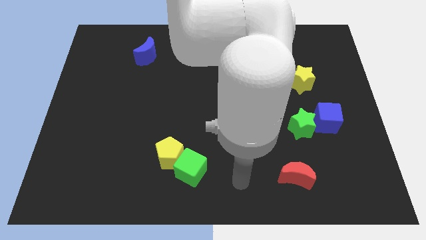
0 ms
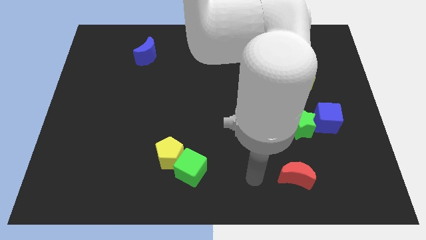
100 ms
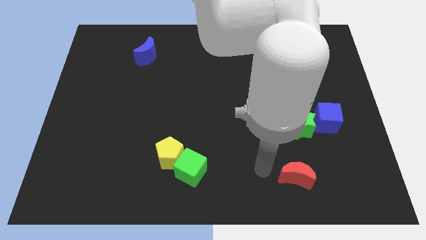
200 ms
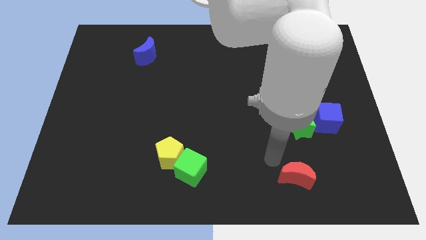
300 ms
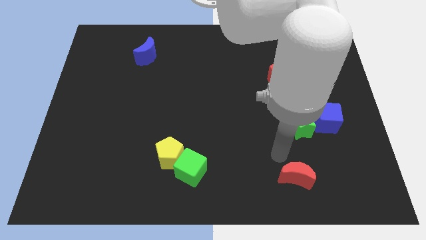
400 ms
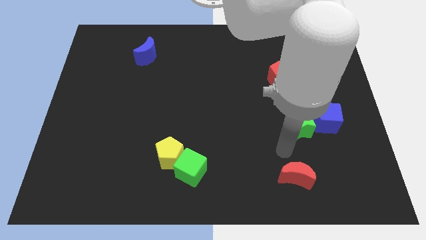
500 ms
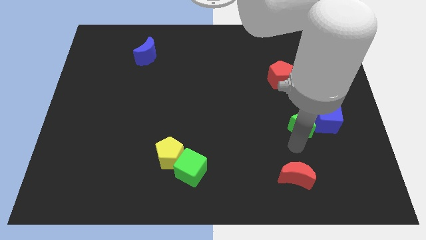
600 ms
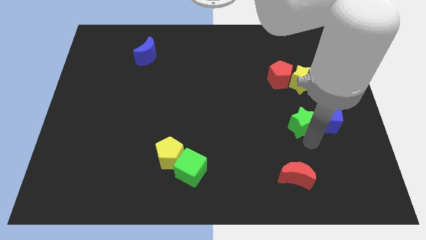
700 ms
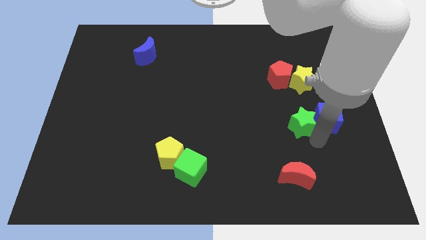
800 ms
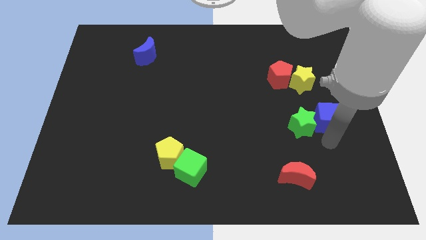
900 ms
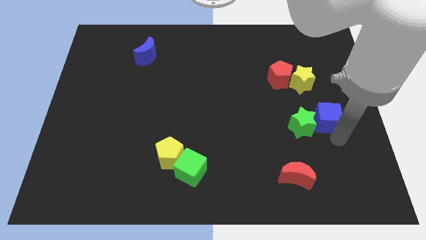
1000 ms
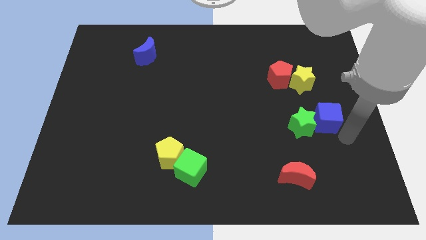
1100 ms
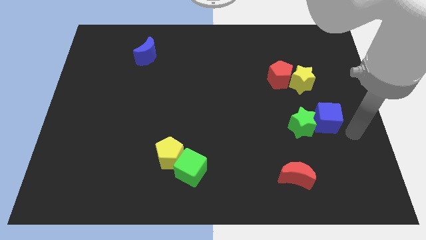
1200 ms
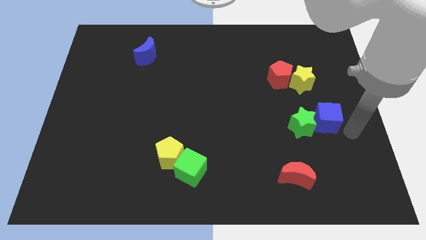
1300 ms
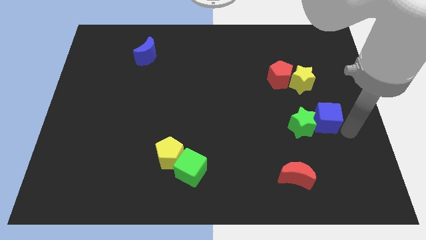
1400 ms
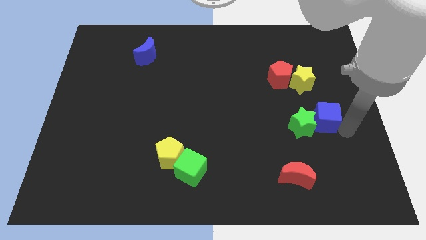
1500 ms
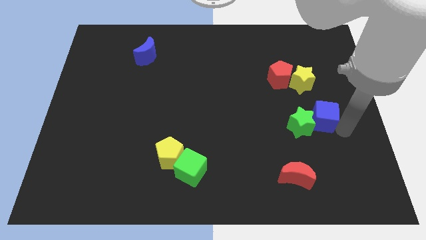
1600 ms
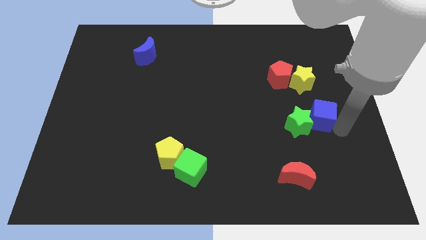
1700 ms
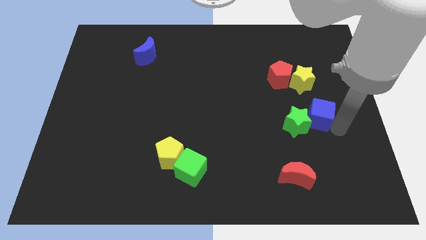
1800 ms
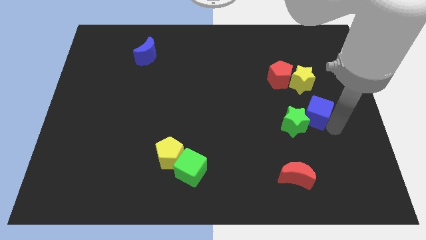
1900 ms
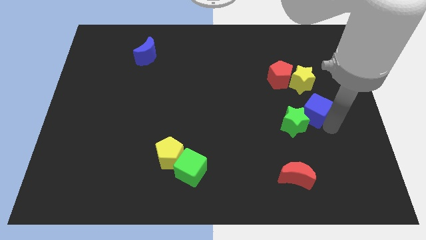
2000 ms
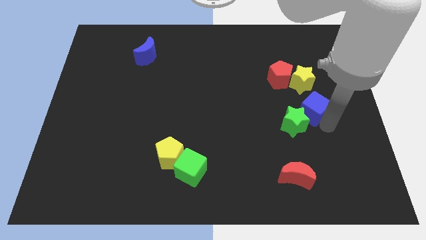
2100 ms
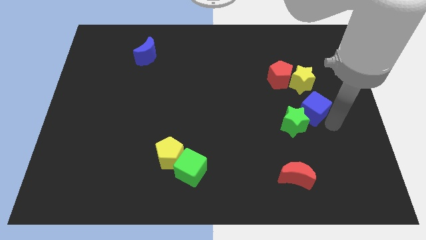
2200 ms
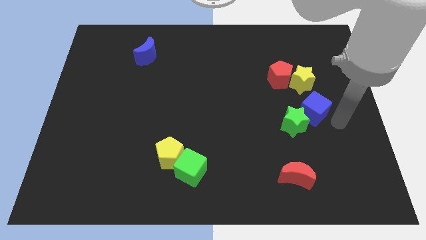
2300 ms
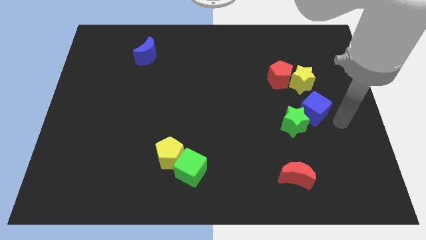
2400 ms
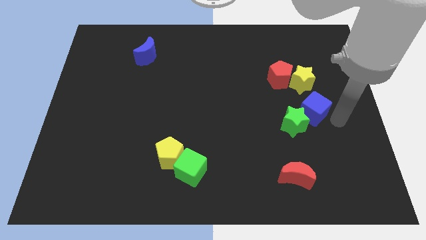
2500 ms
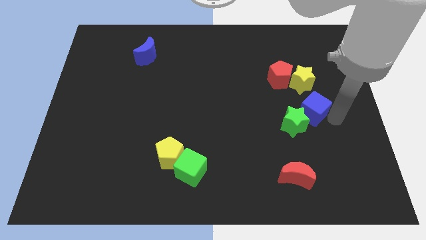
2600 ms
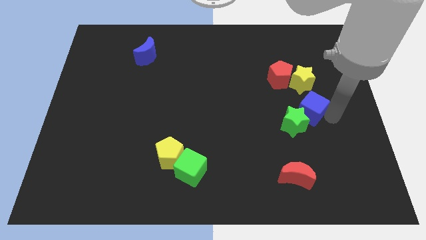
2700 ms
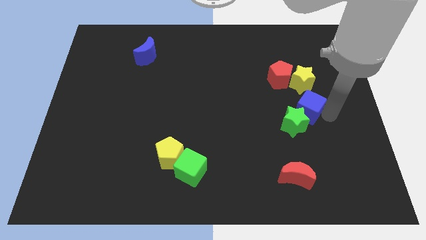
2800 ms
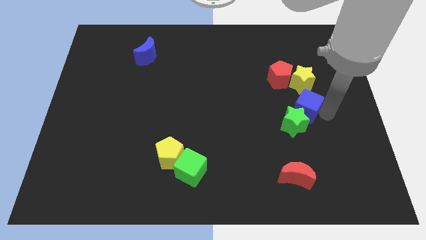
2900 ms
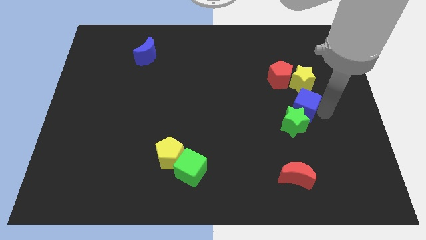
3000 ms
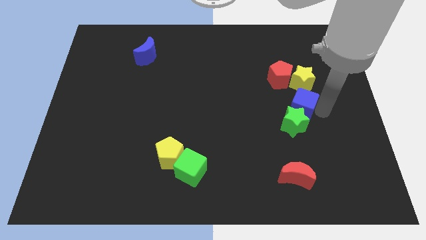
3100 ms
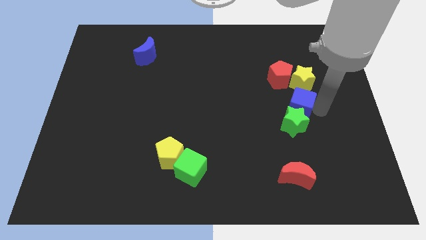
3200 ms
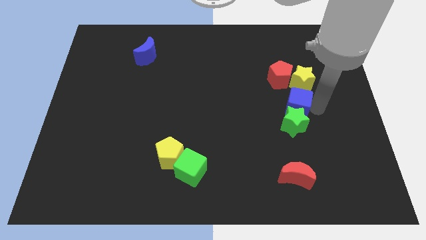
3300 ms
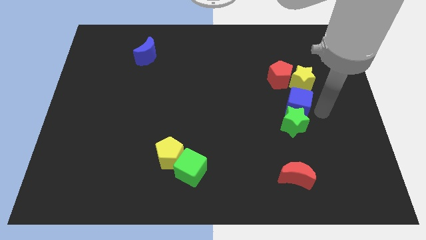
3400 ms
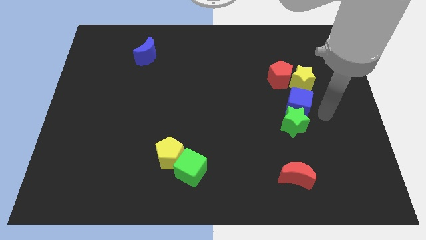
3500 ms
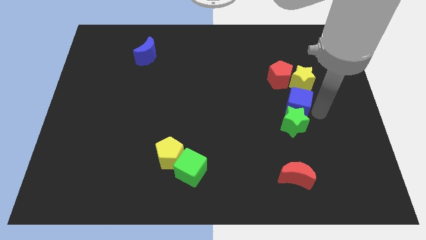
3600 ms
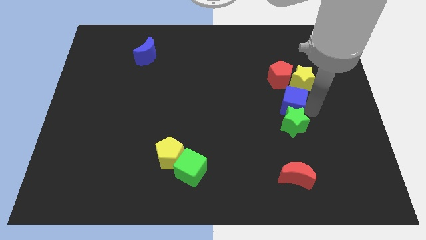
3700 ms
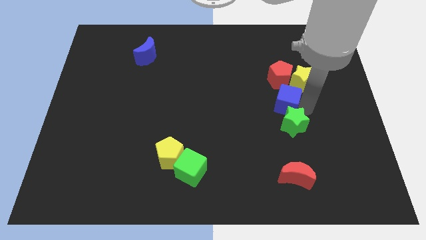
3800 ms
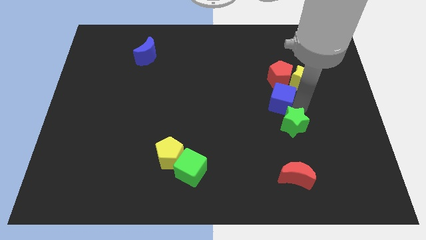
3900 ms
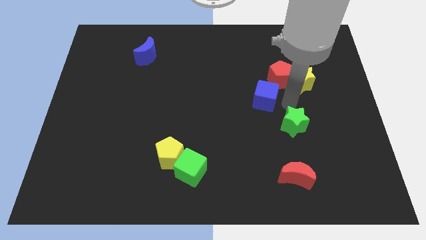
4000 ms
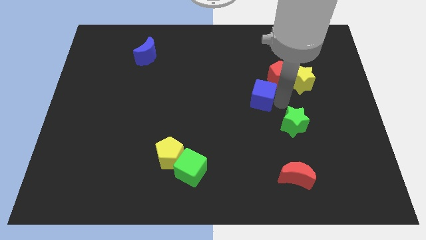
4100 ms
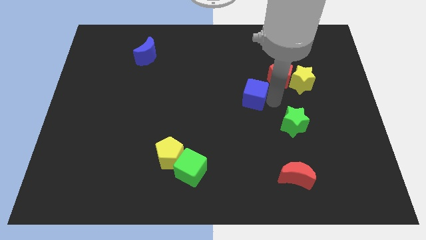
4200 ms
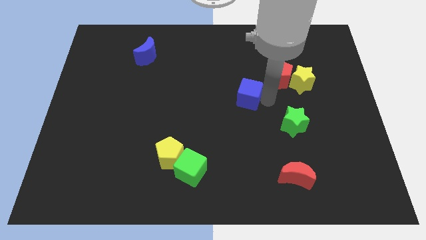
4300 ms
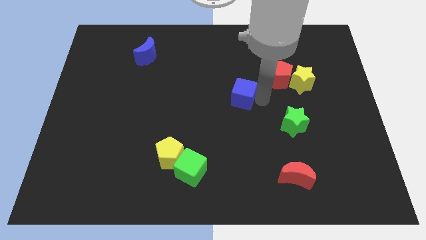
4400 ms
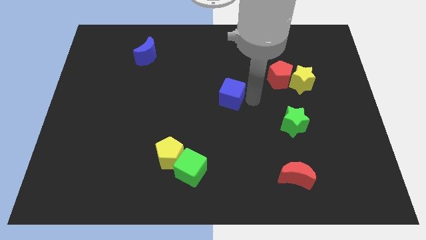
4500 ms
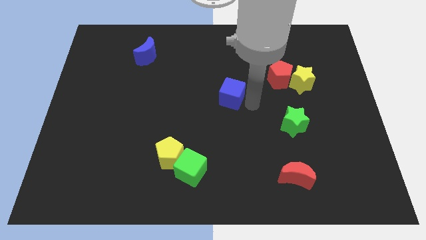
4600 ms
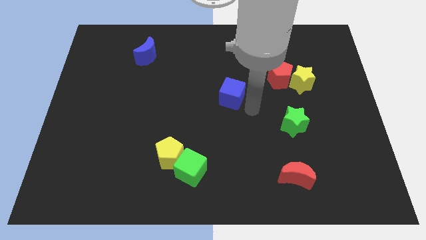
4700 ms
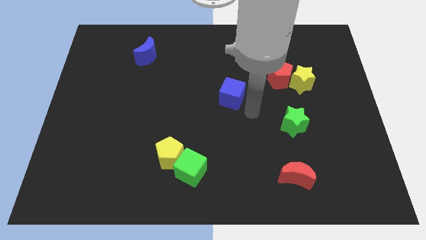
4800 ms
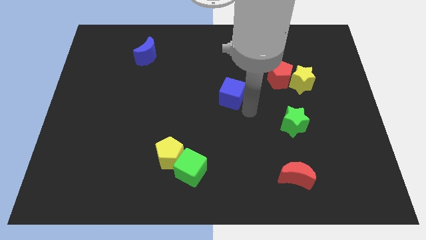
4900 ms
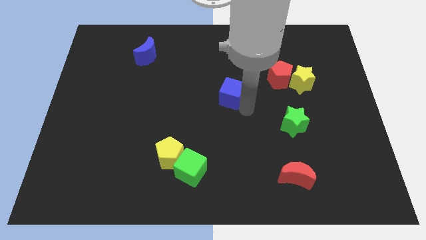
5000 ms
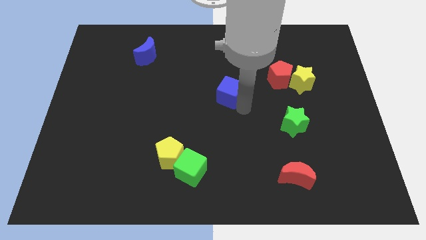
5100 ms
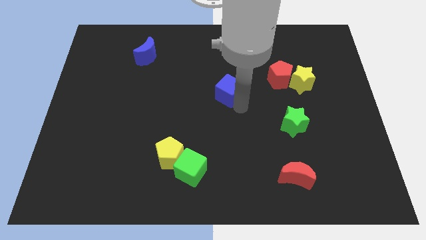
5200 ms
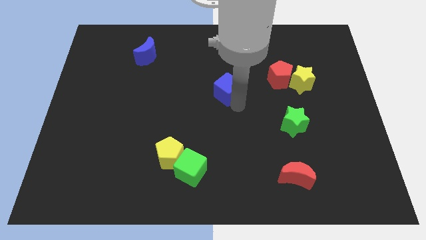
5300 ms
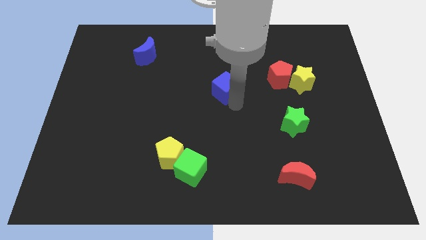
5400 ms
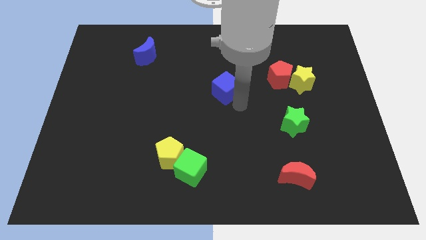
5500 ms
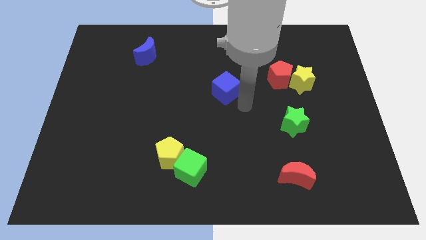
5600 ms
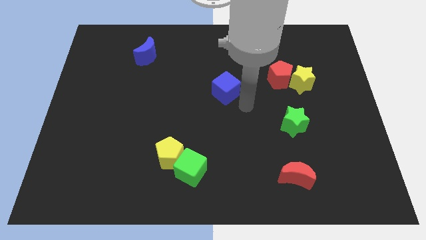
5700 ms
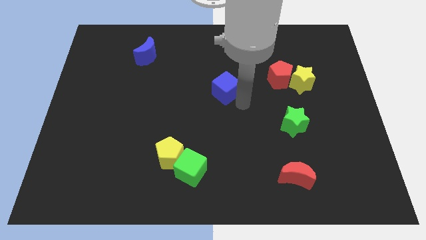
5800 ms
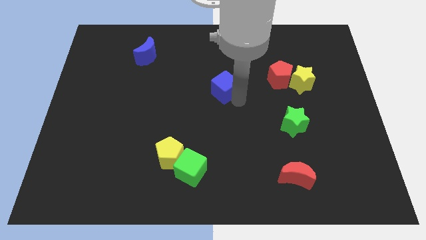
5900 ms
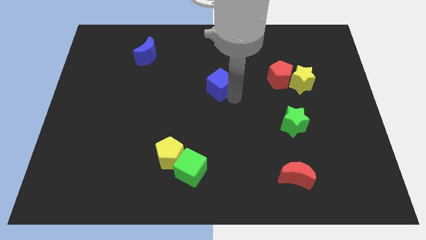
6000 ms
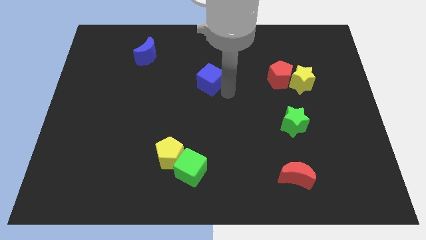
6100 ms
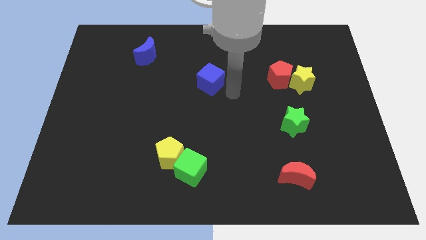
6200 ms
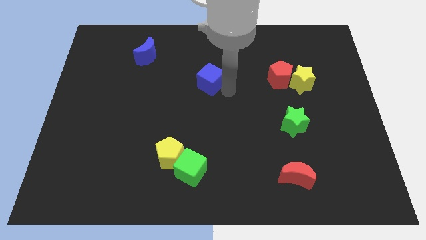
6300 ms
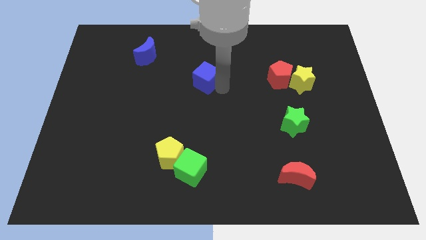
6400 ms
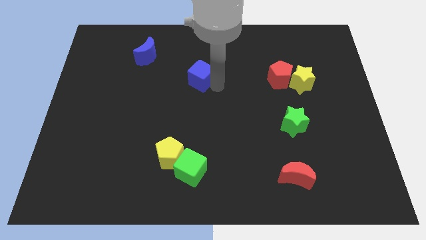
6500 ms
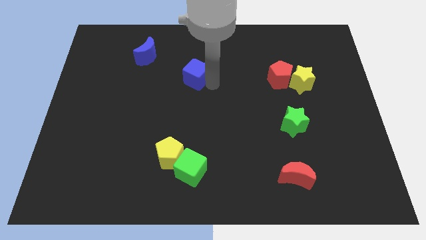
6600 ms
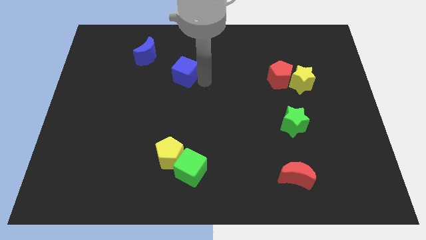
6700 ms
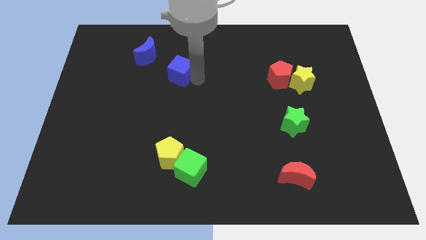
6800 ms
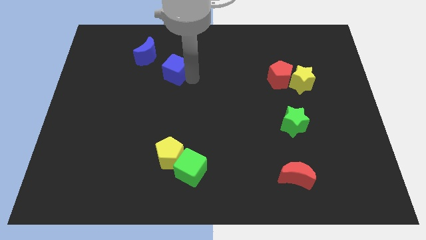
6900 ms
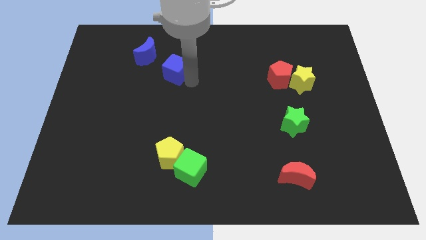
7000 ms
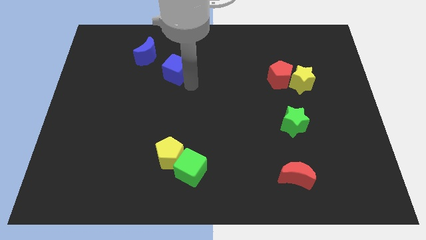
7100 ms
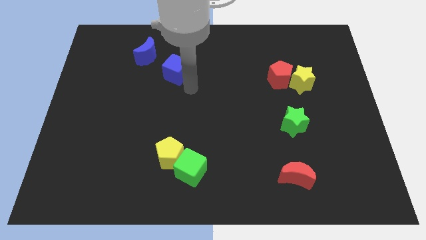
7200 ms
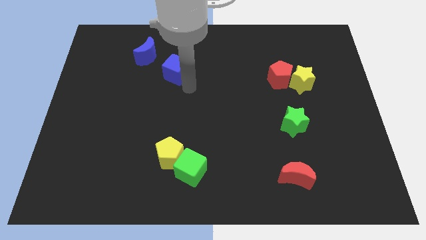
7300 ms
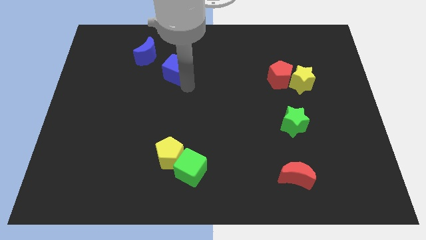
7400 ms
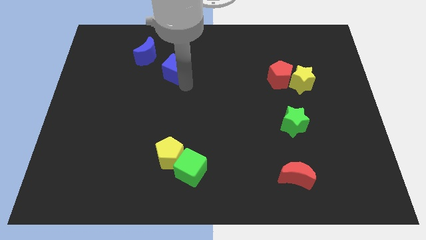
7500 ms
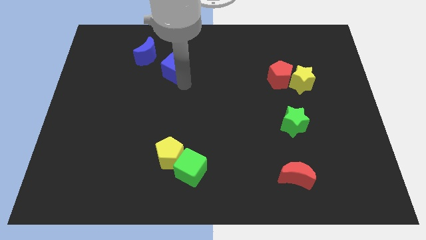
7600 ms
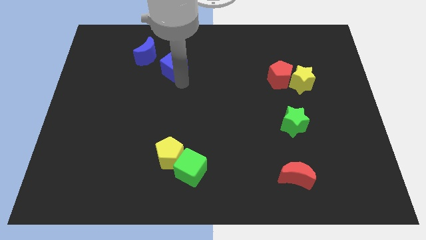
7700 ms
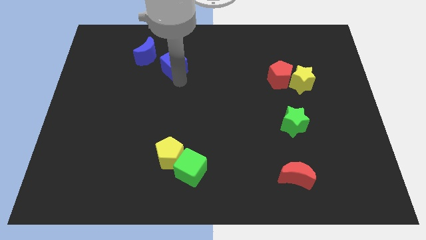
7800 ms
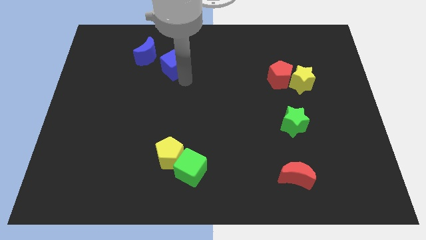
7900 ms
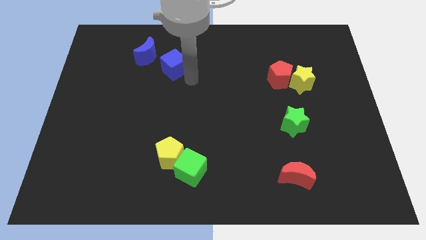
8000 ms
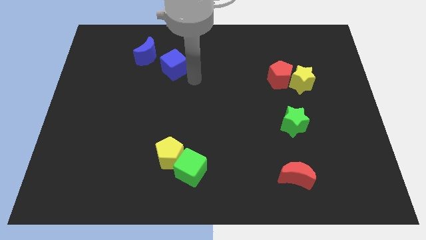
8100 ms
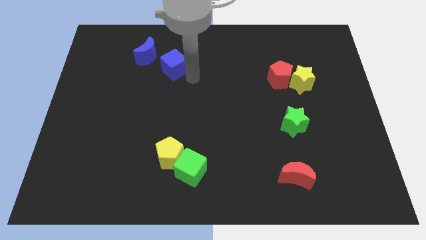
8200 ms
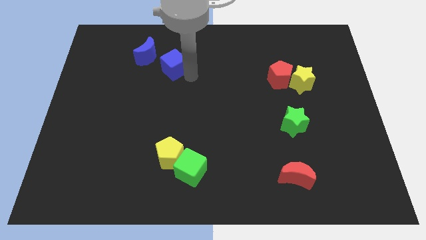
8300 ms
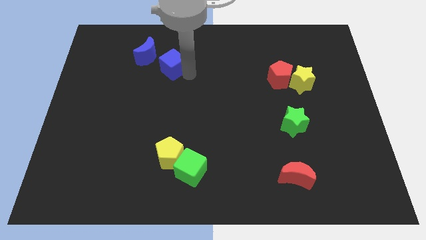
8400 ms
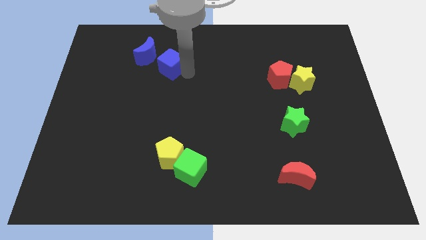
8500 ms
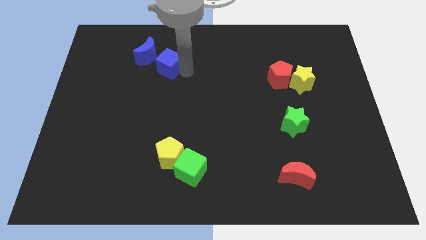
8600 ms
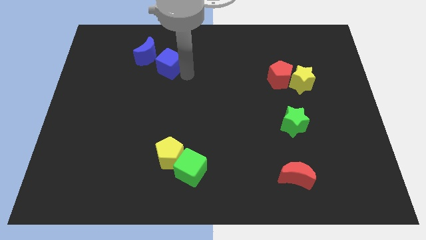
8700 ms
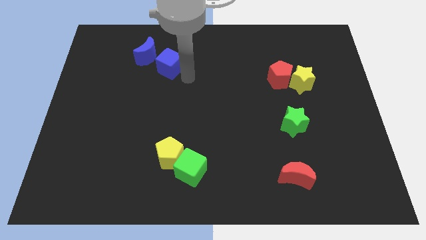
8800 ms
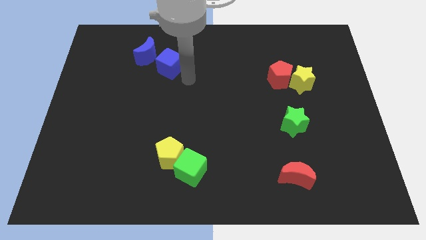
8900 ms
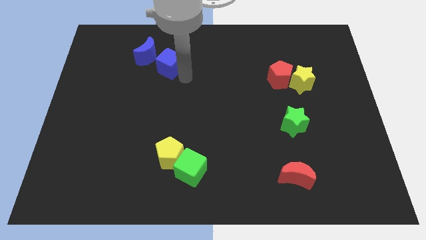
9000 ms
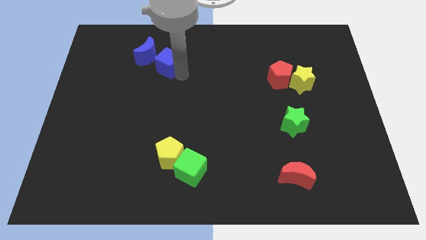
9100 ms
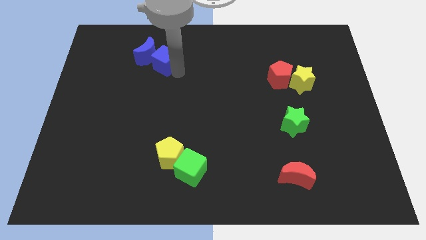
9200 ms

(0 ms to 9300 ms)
move the blue cube close to the blue moon
